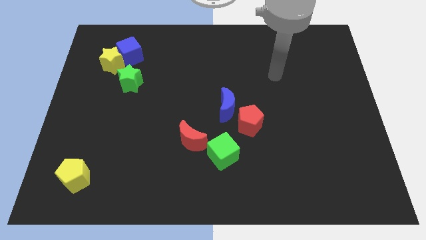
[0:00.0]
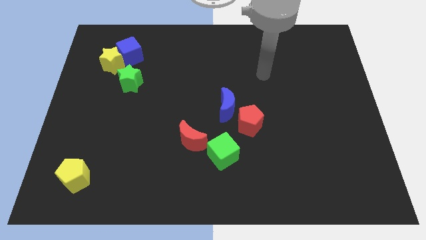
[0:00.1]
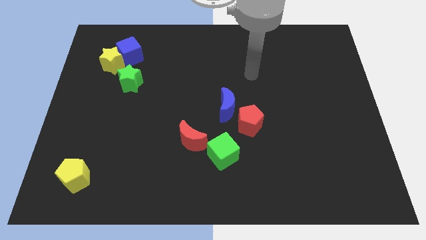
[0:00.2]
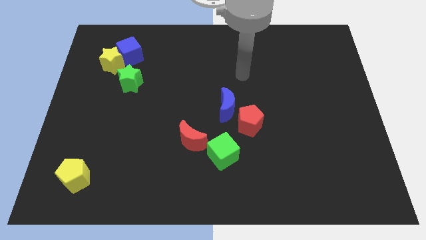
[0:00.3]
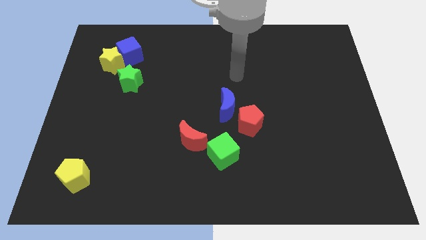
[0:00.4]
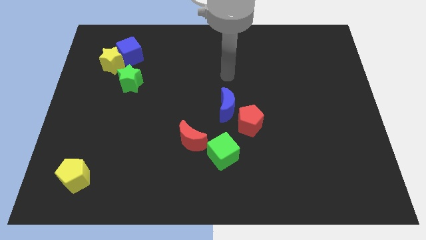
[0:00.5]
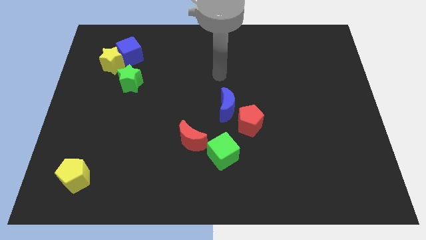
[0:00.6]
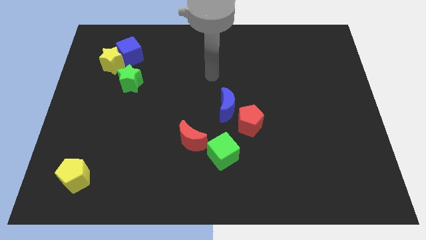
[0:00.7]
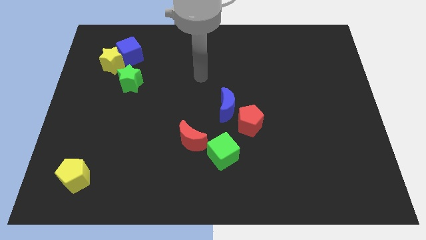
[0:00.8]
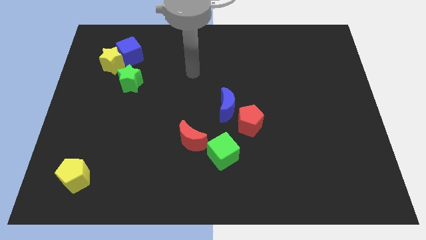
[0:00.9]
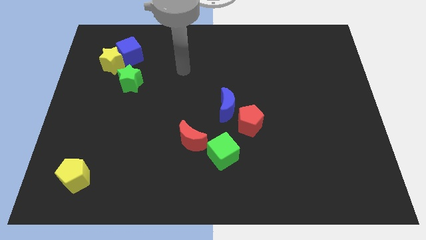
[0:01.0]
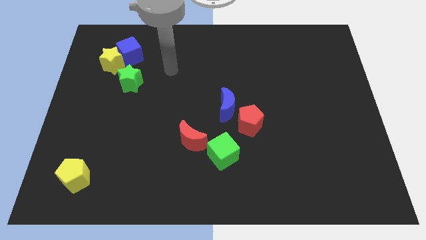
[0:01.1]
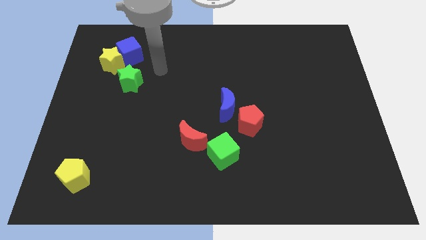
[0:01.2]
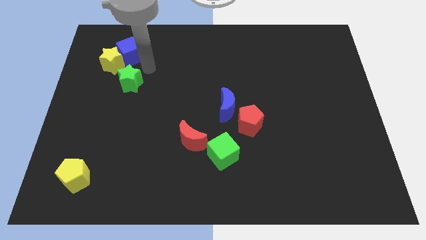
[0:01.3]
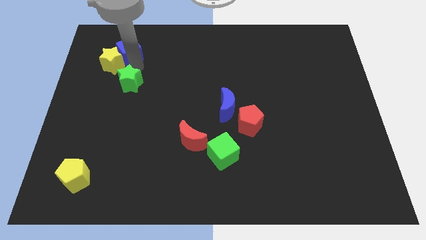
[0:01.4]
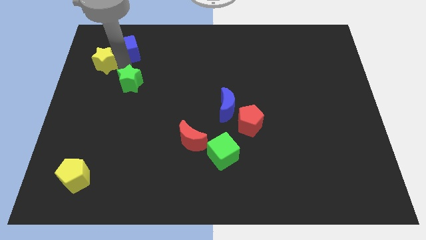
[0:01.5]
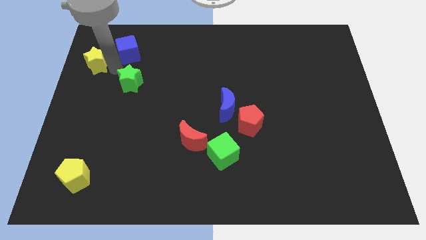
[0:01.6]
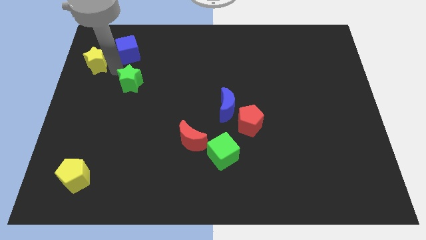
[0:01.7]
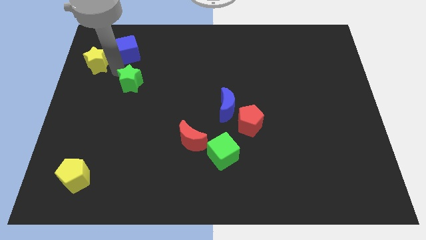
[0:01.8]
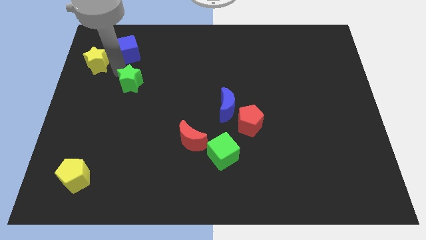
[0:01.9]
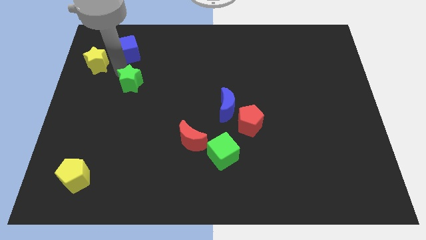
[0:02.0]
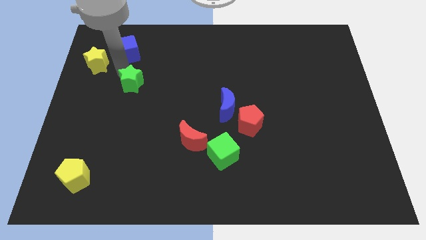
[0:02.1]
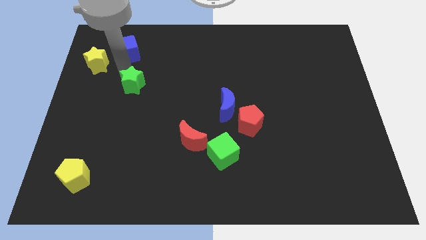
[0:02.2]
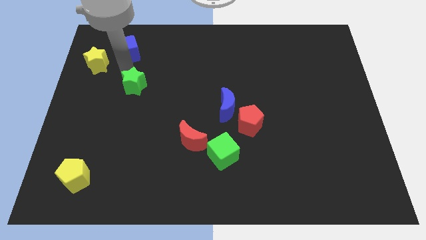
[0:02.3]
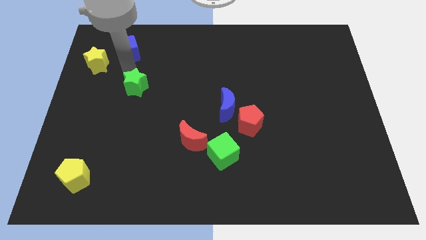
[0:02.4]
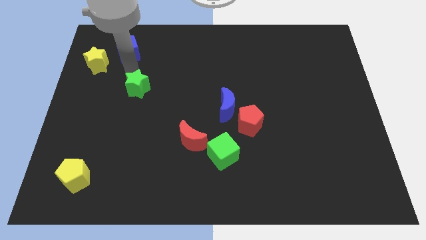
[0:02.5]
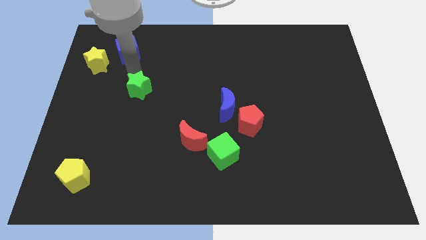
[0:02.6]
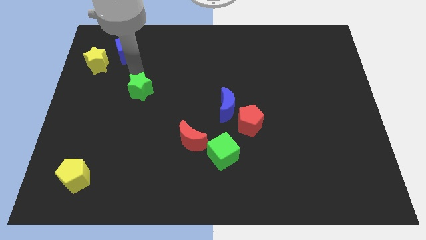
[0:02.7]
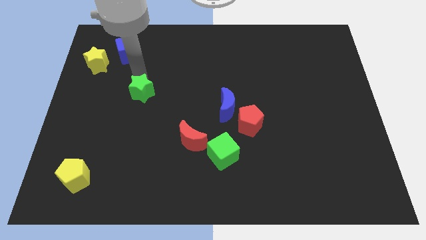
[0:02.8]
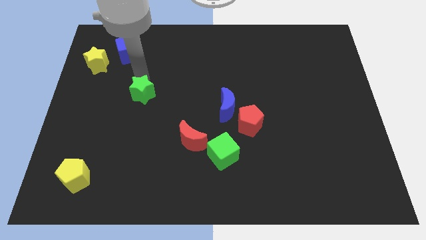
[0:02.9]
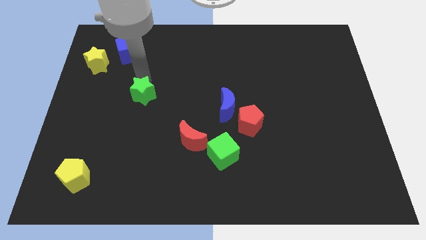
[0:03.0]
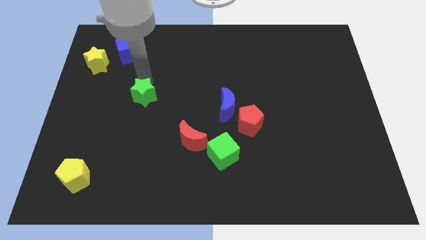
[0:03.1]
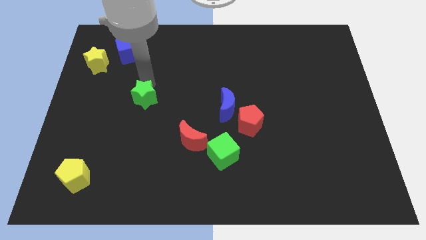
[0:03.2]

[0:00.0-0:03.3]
push the green star a little bit diagonally downwards and to the right

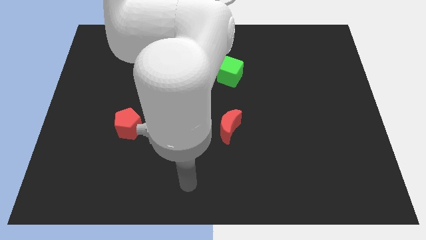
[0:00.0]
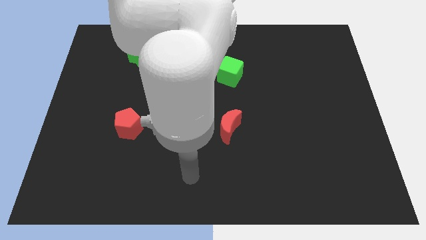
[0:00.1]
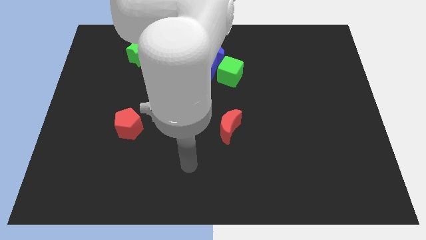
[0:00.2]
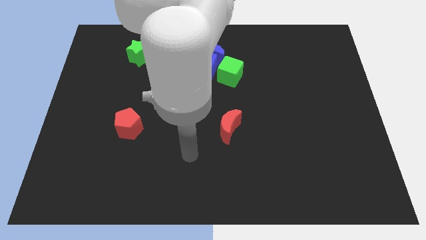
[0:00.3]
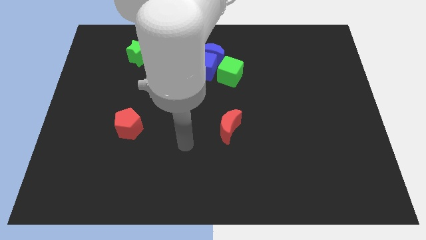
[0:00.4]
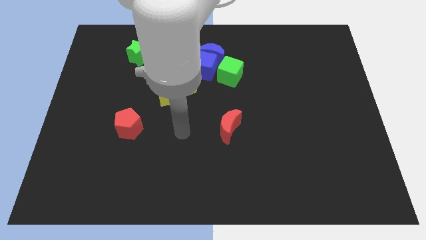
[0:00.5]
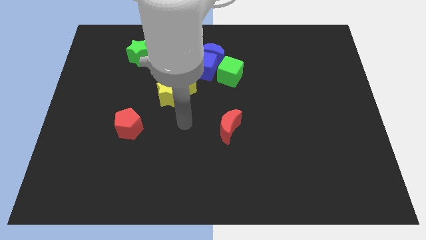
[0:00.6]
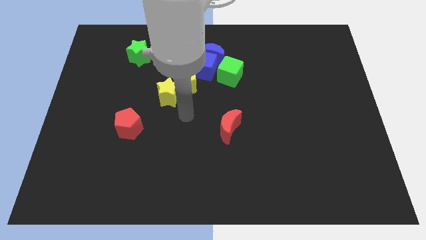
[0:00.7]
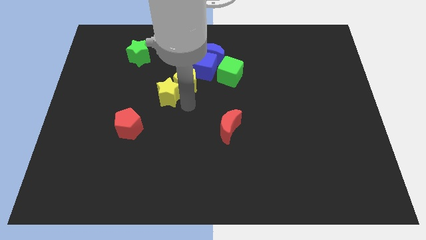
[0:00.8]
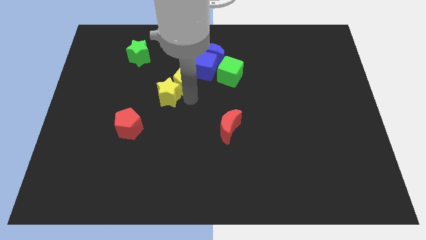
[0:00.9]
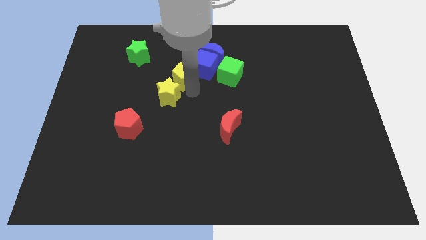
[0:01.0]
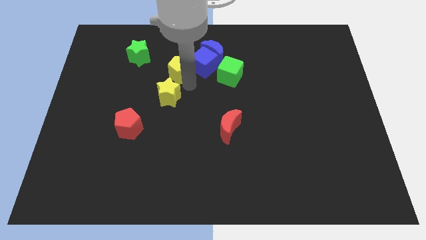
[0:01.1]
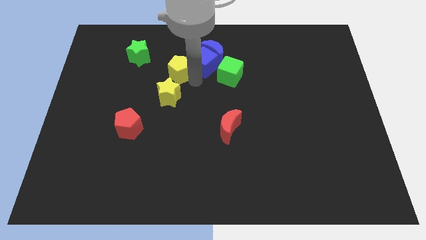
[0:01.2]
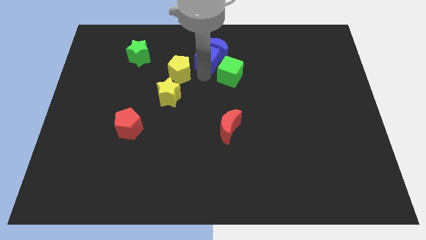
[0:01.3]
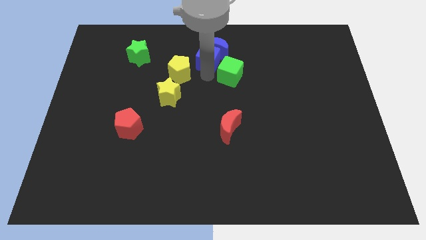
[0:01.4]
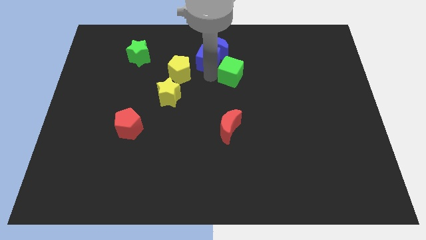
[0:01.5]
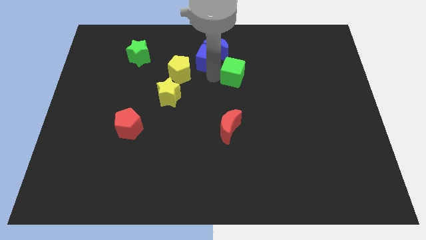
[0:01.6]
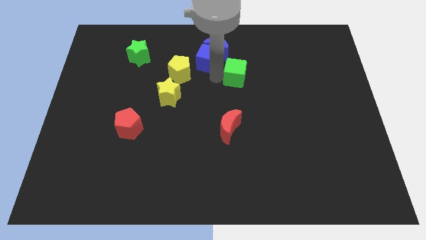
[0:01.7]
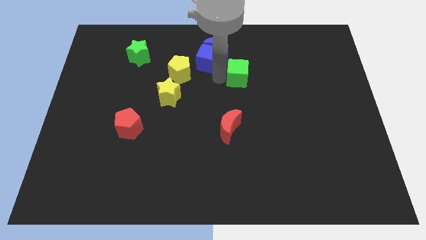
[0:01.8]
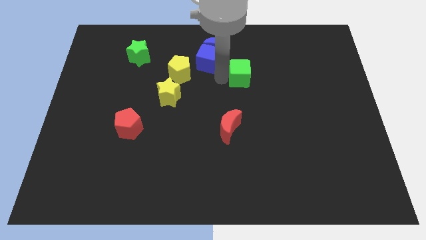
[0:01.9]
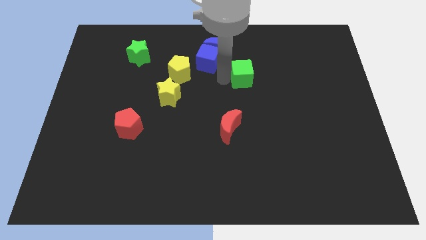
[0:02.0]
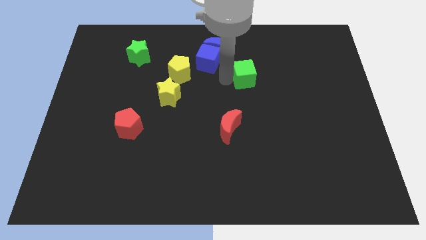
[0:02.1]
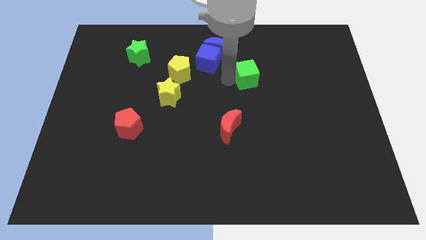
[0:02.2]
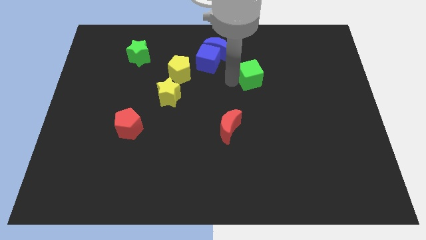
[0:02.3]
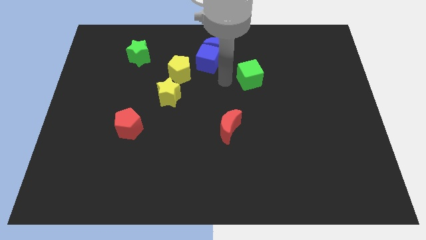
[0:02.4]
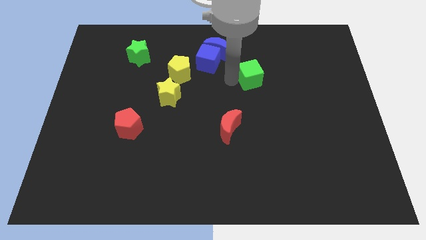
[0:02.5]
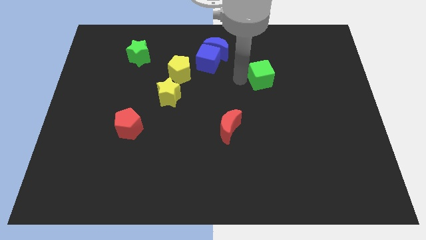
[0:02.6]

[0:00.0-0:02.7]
slide the green cube to the right a little bit

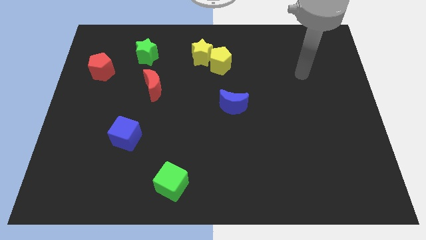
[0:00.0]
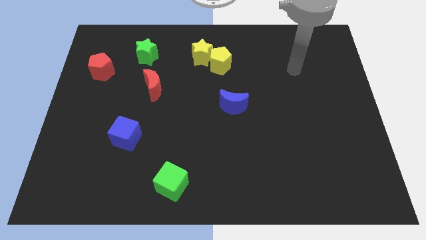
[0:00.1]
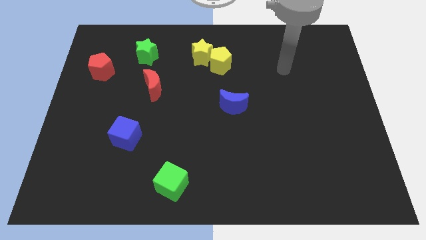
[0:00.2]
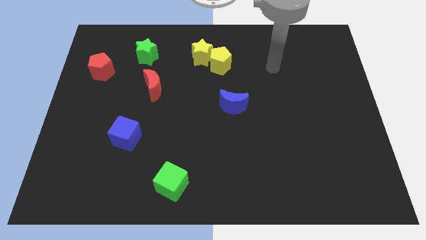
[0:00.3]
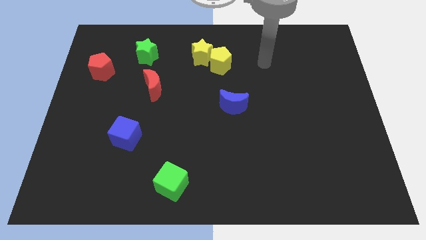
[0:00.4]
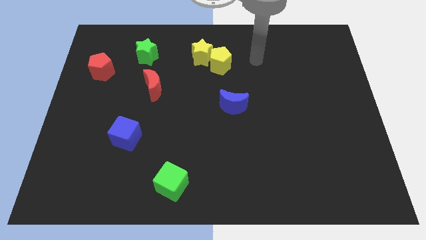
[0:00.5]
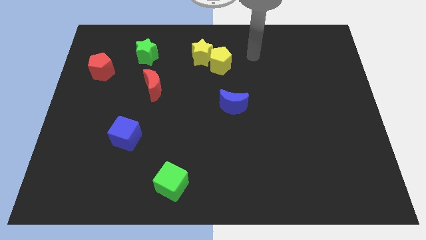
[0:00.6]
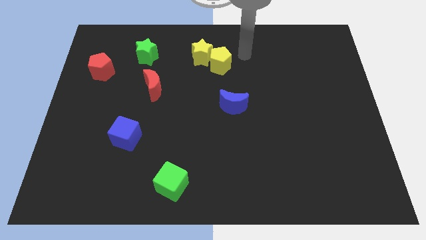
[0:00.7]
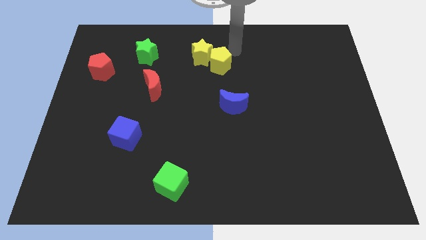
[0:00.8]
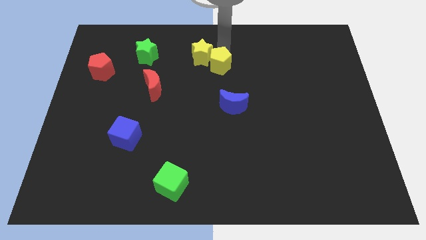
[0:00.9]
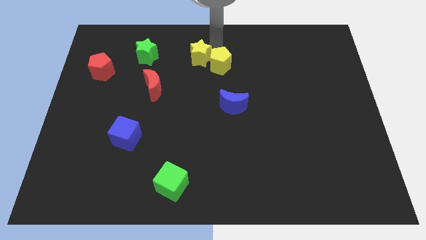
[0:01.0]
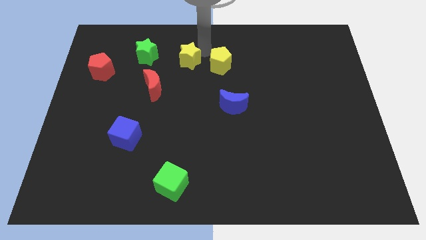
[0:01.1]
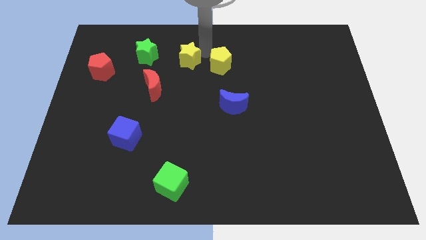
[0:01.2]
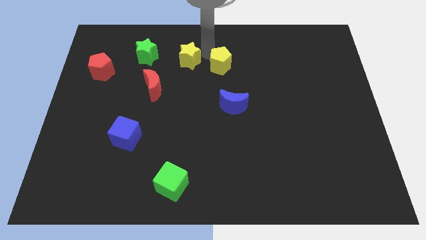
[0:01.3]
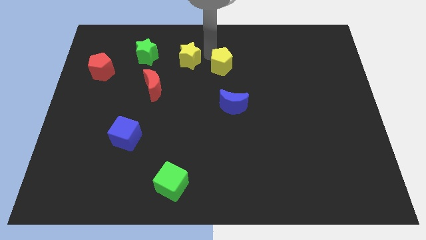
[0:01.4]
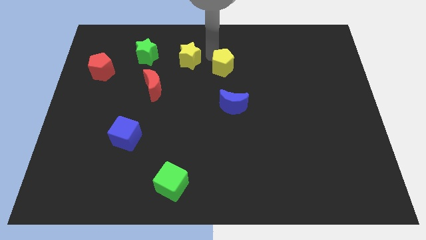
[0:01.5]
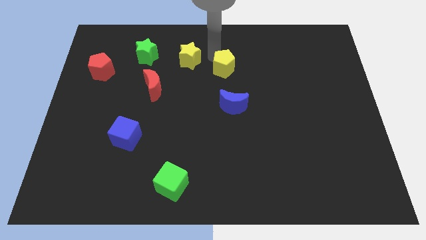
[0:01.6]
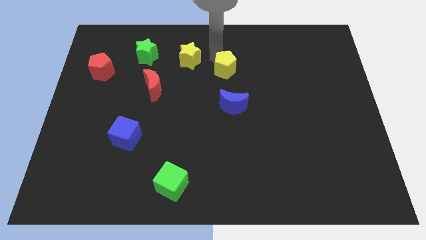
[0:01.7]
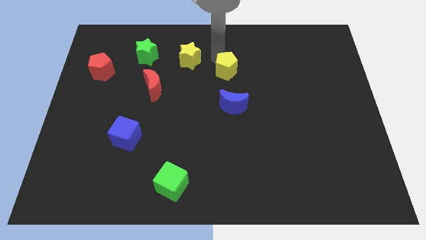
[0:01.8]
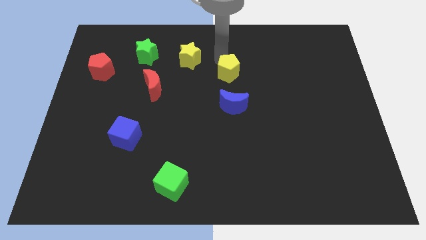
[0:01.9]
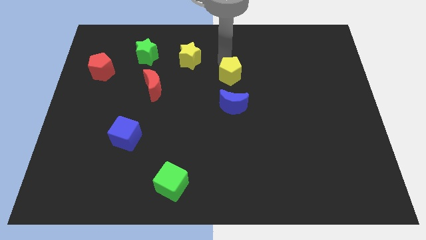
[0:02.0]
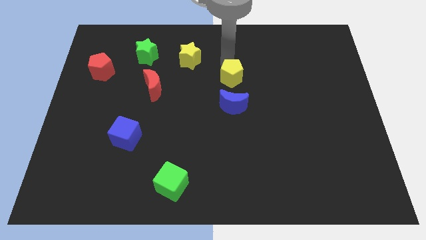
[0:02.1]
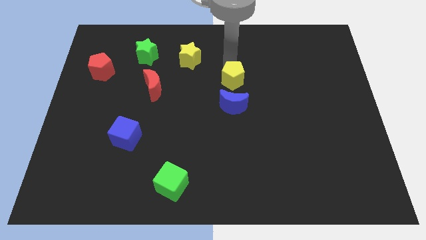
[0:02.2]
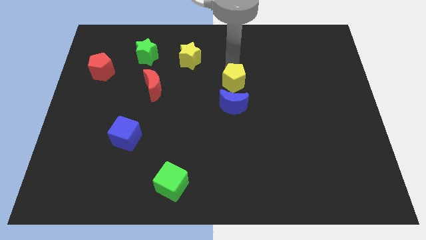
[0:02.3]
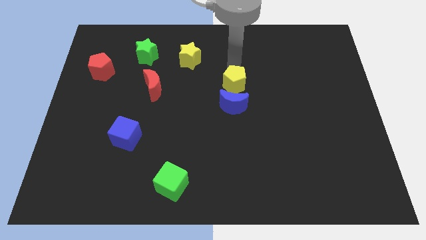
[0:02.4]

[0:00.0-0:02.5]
move the yellow pentagon slightly downwards and then to the right
